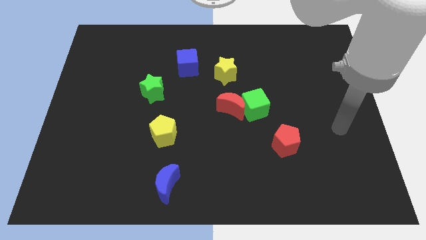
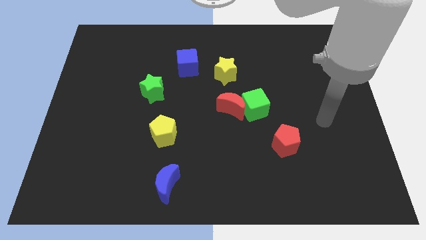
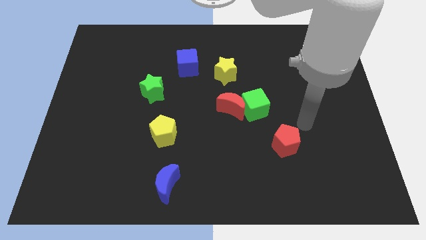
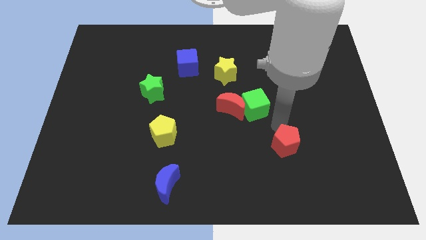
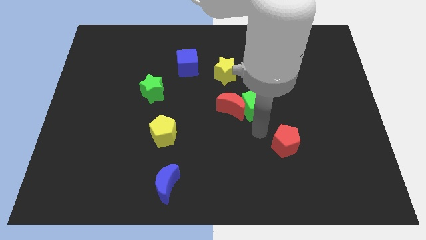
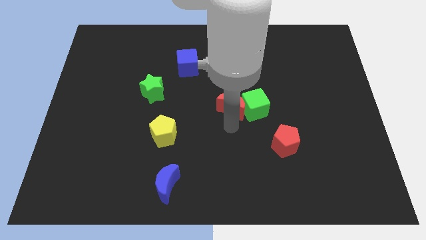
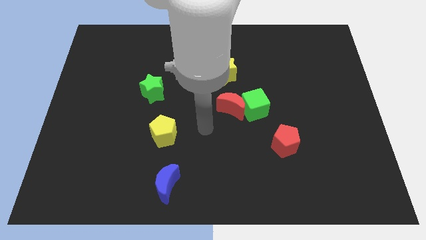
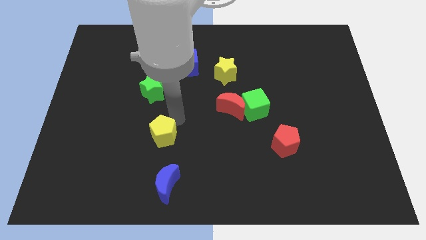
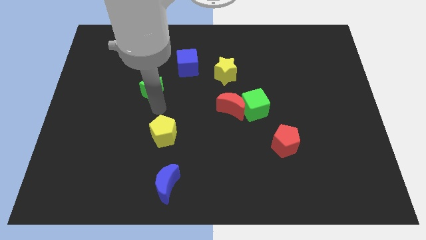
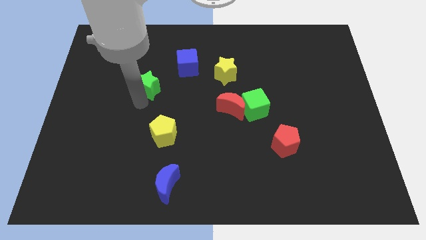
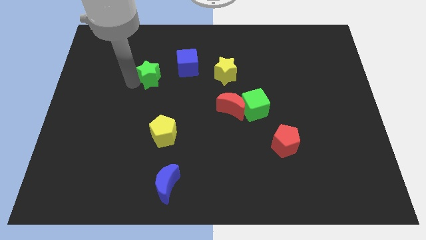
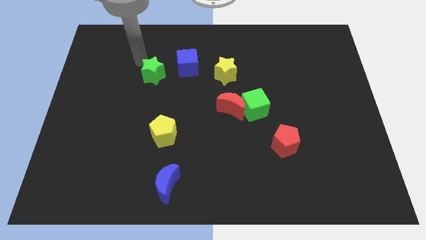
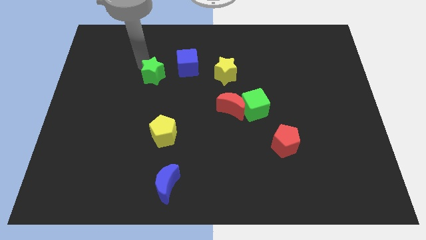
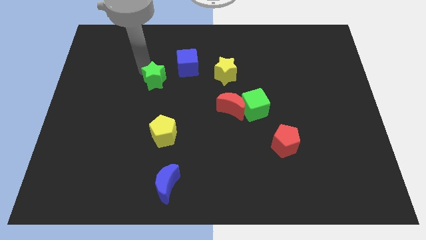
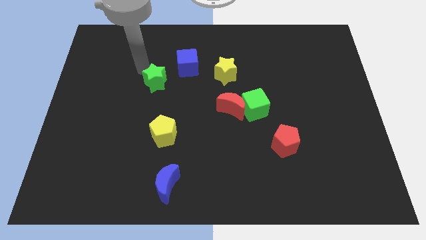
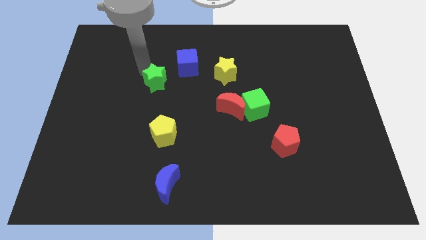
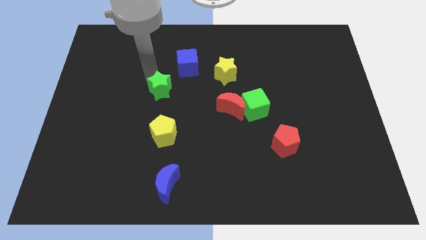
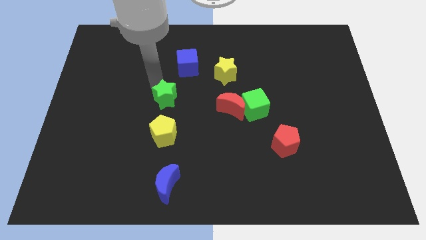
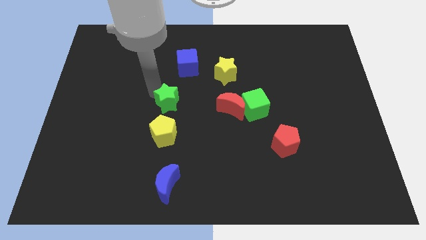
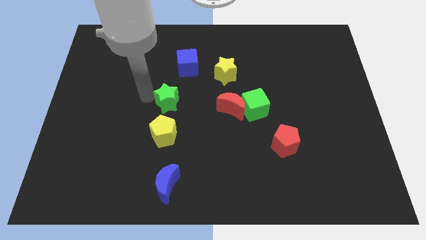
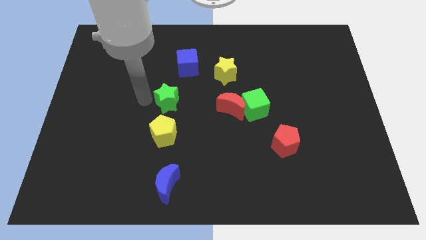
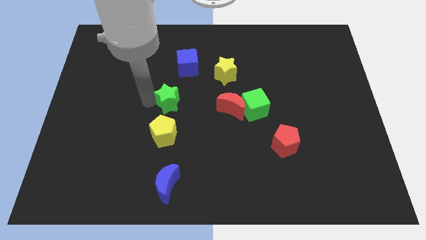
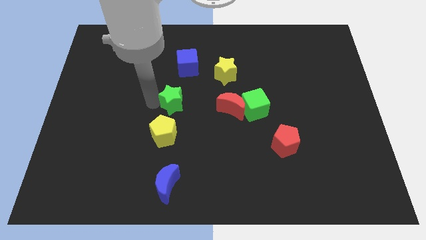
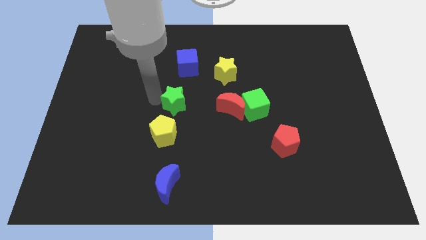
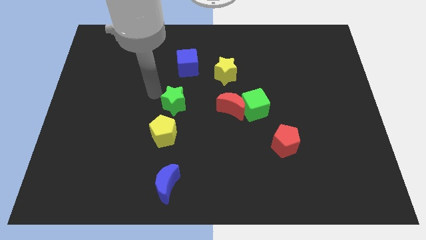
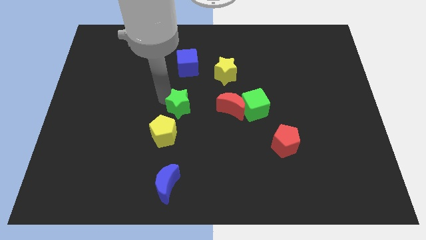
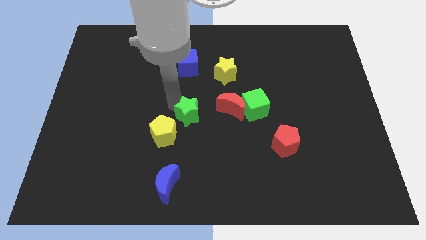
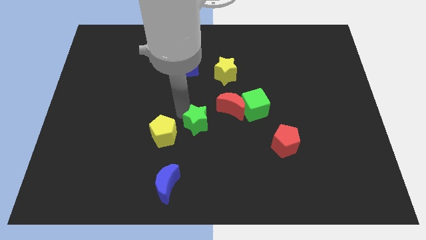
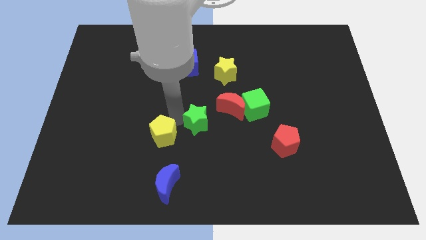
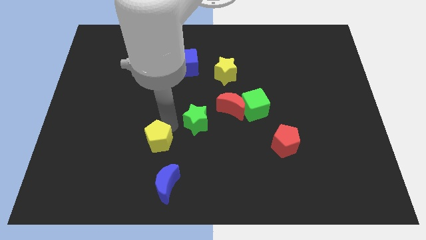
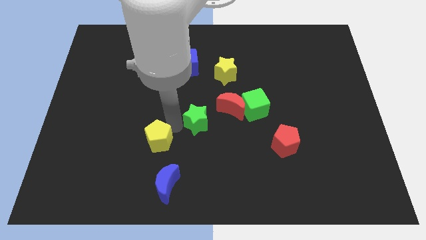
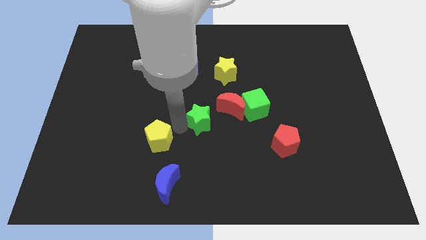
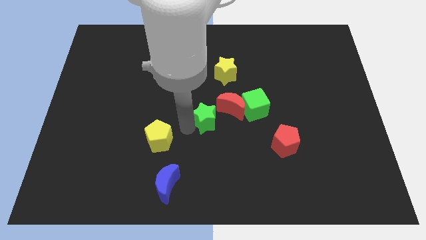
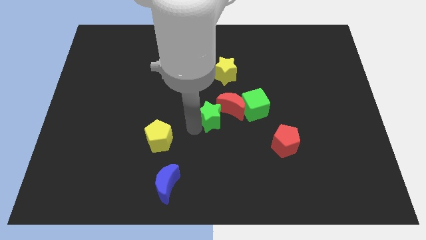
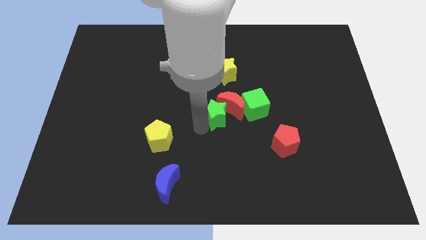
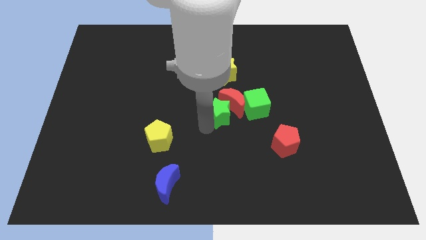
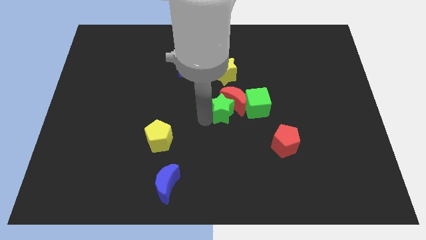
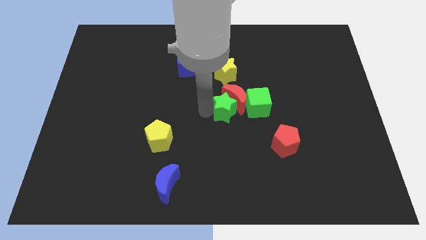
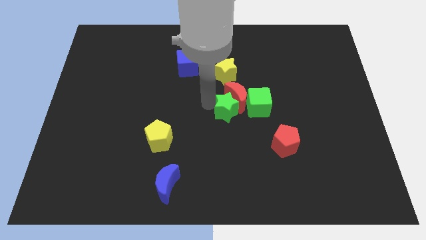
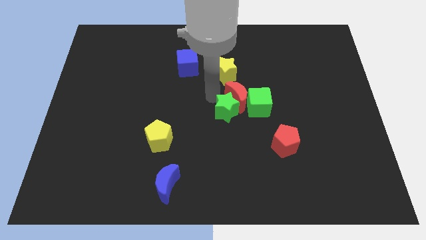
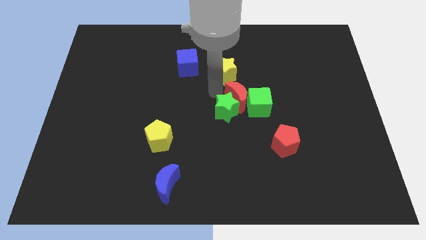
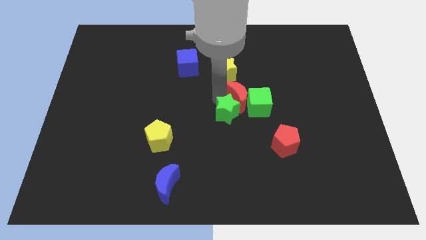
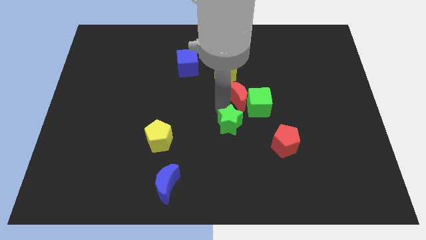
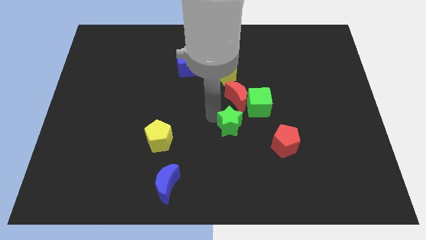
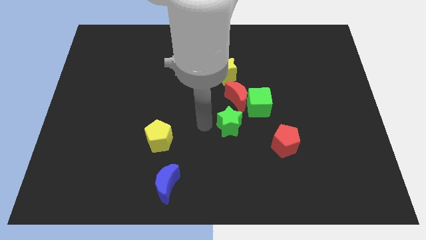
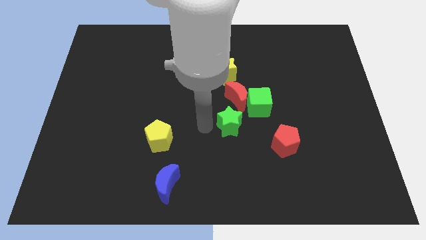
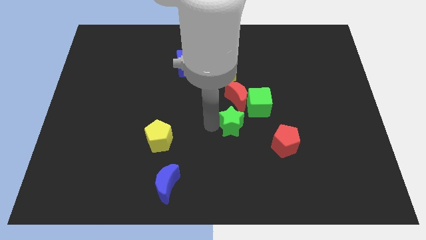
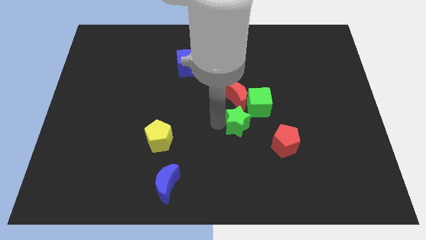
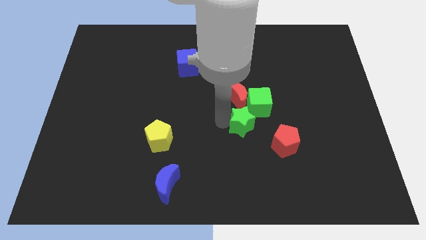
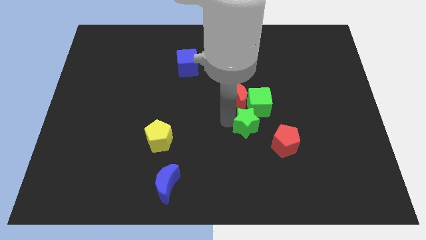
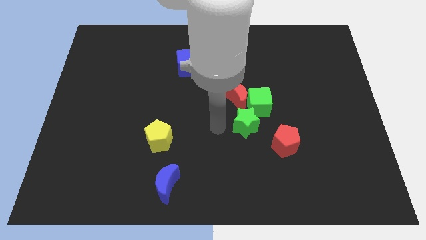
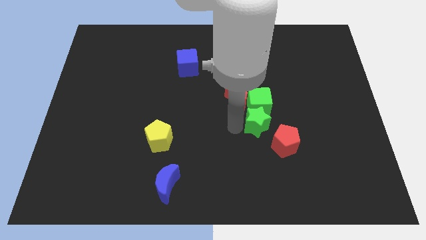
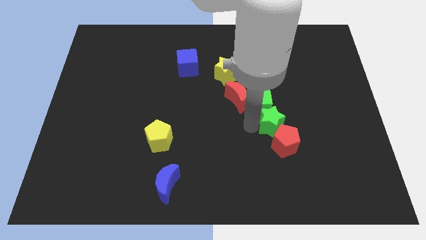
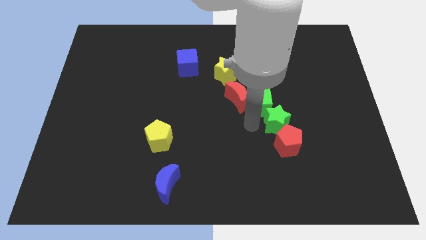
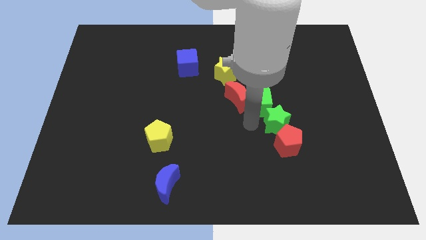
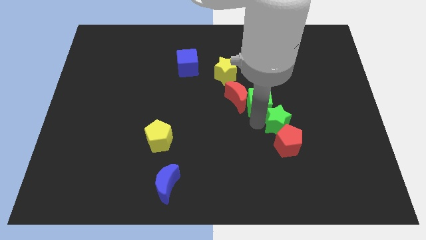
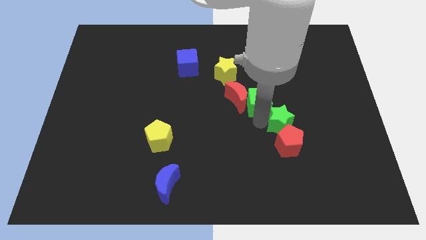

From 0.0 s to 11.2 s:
put the green star diagonally up and to the right of the red pentagon

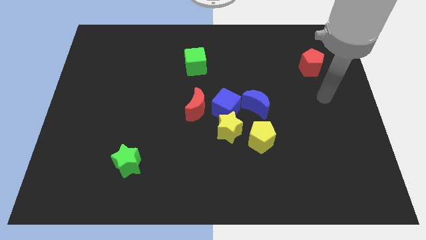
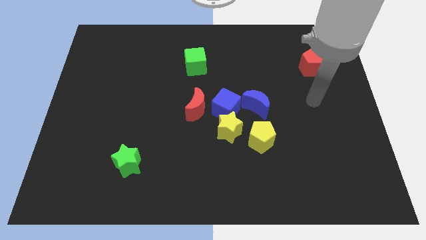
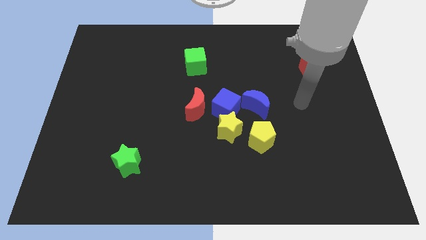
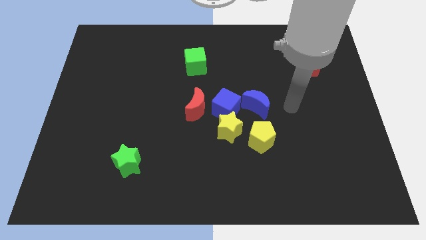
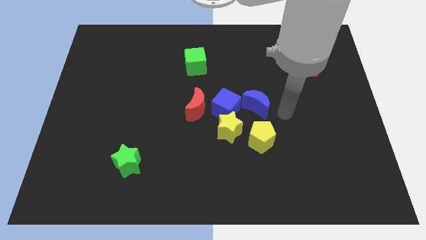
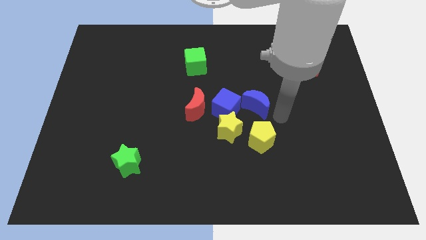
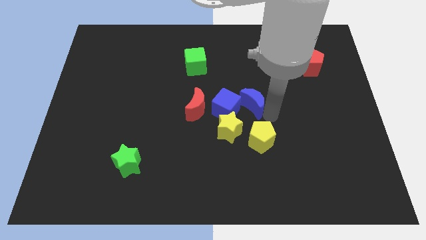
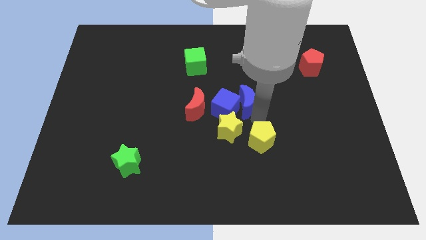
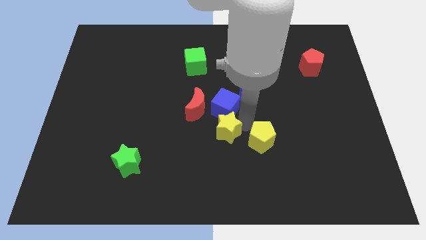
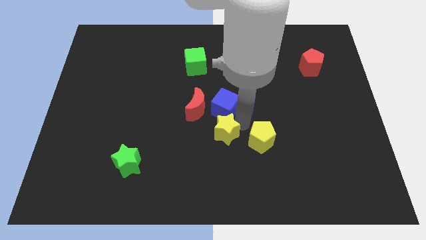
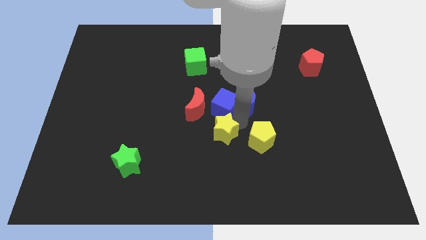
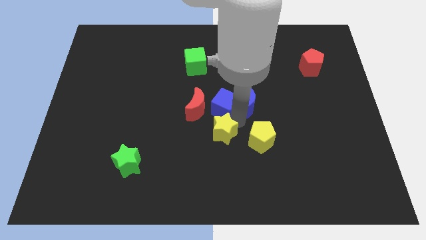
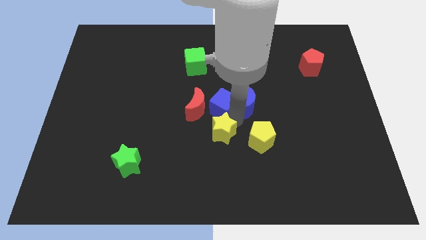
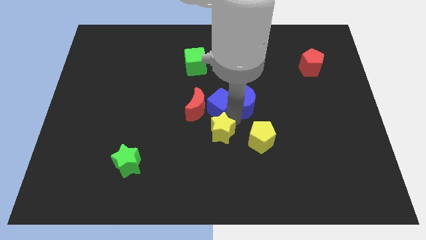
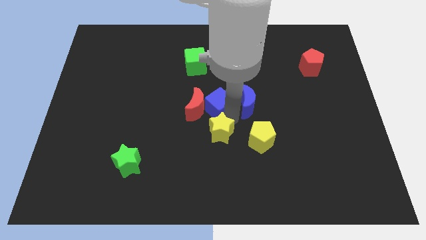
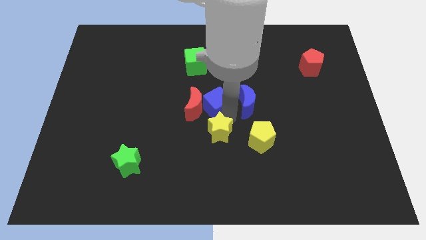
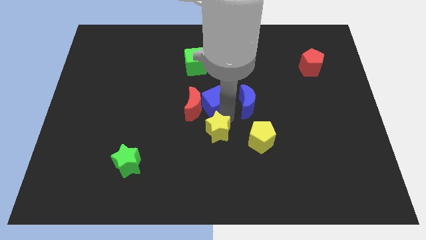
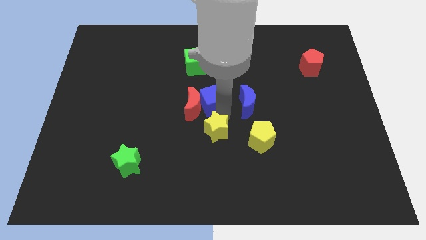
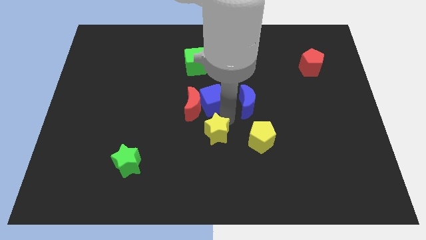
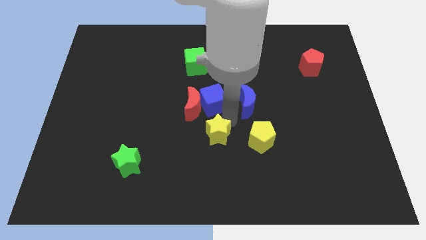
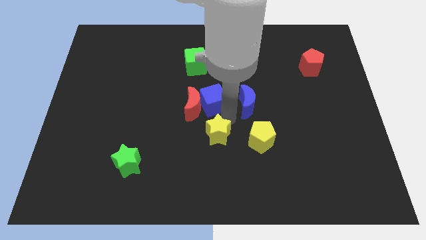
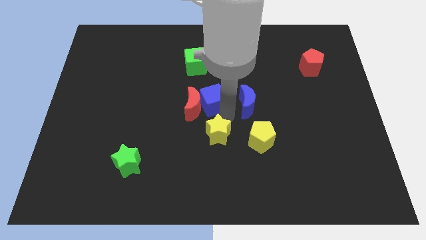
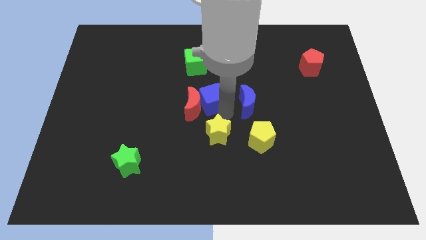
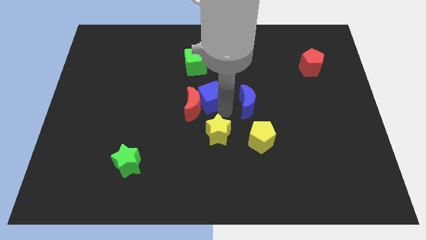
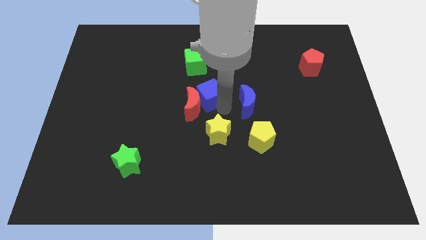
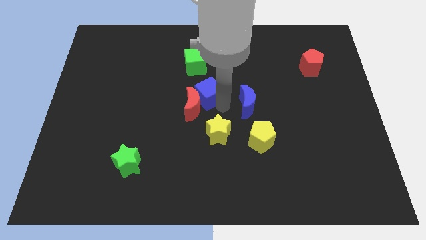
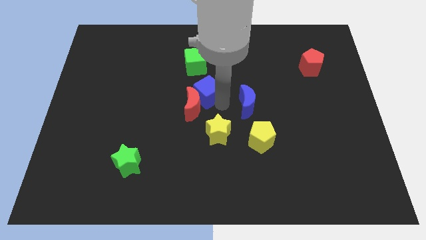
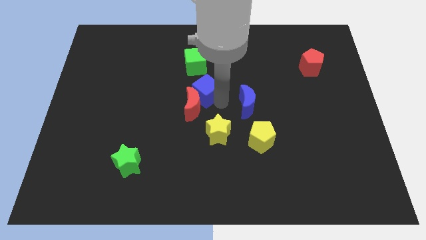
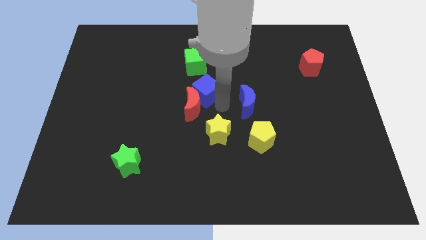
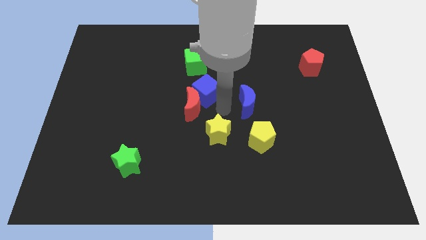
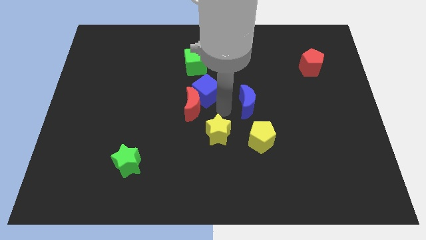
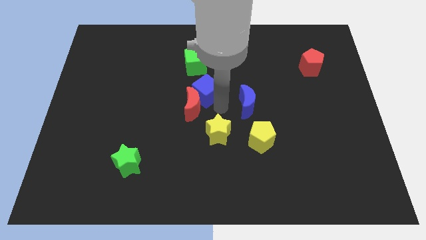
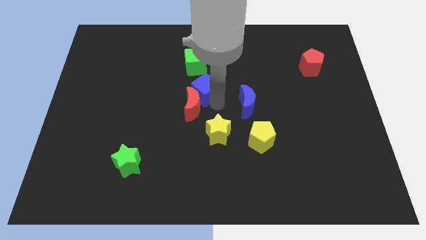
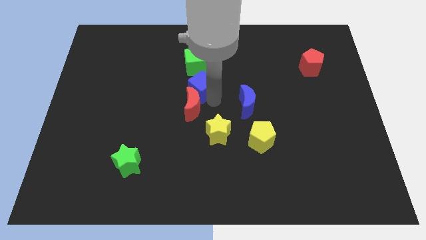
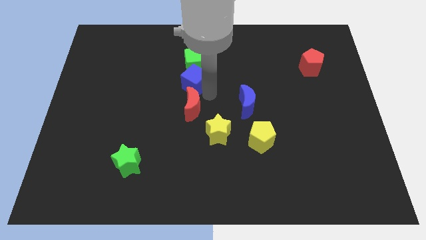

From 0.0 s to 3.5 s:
push the blue cube to the bottom left side of the green cube
